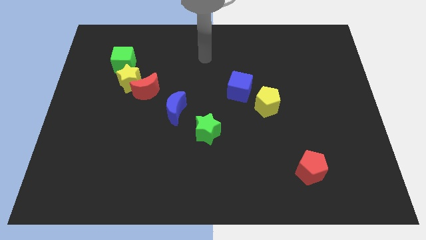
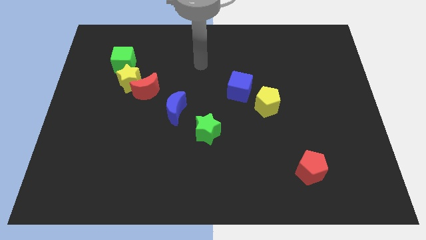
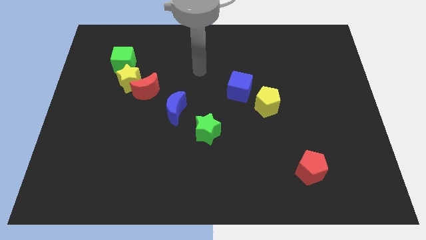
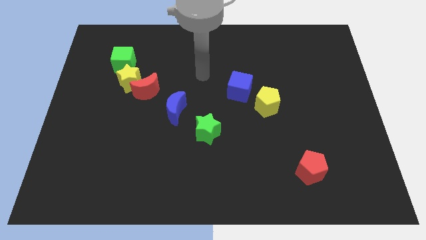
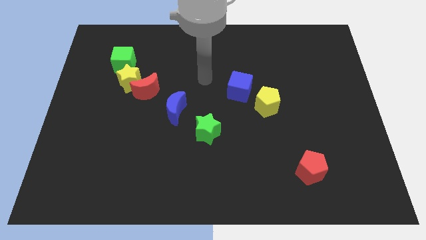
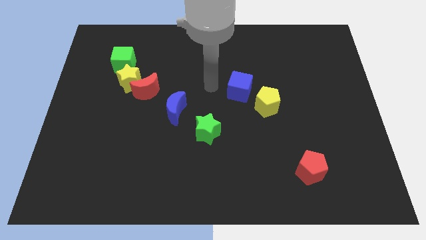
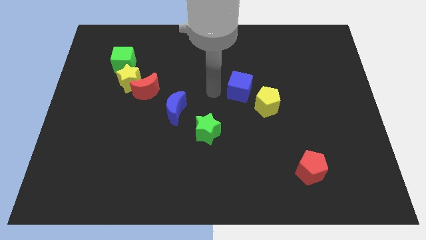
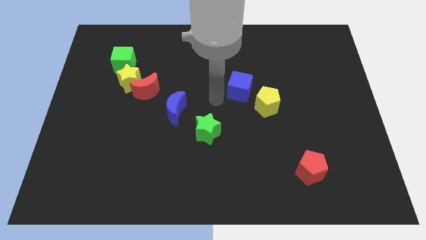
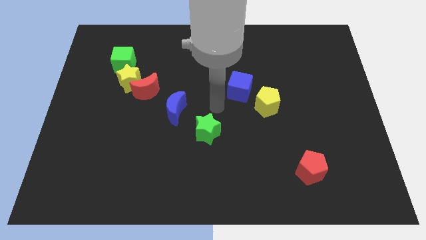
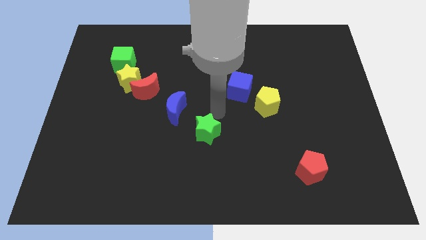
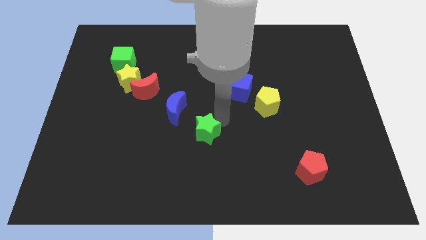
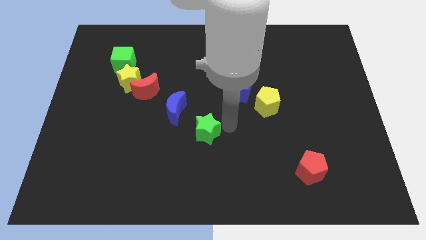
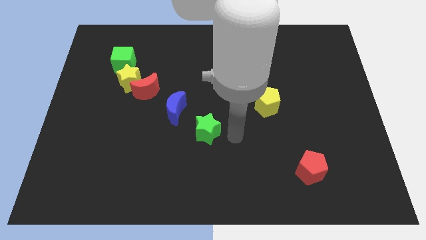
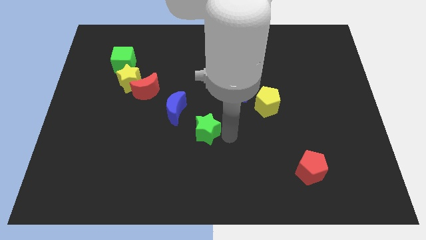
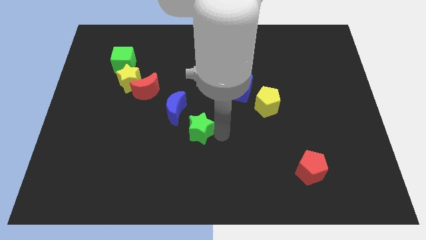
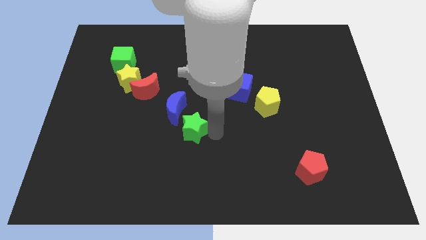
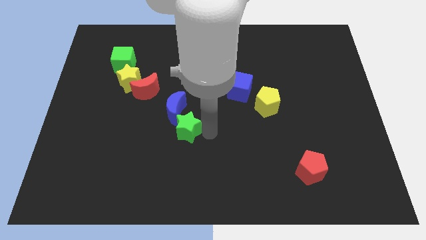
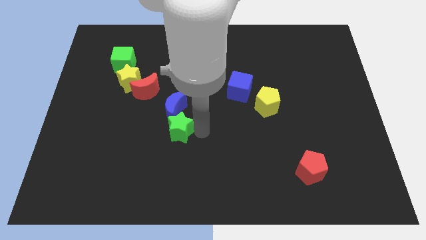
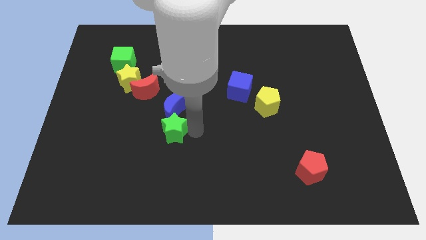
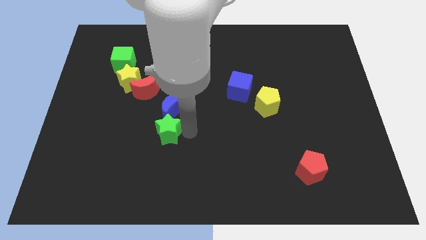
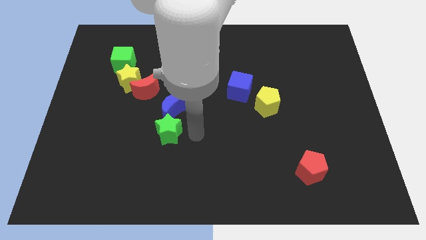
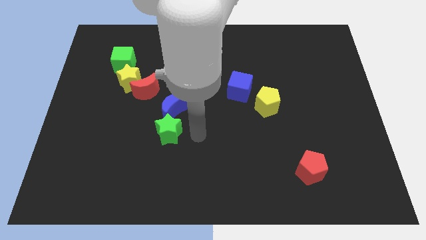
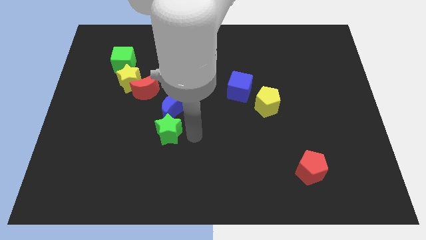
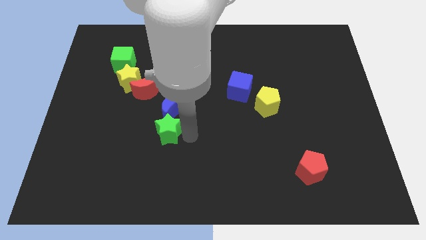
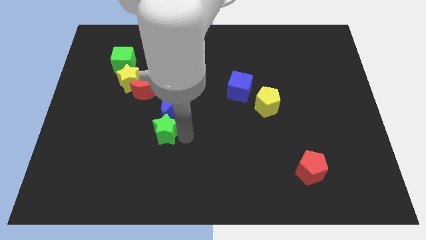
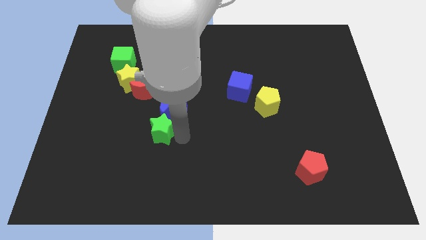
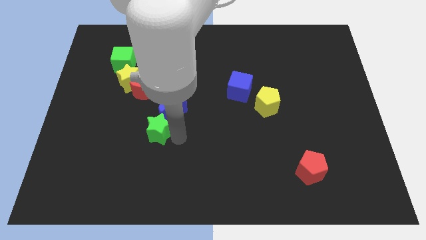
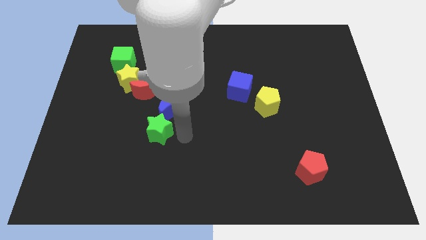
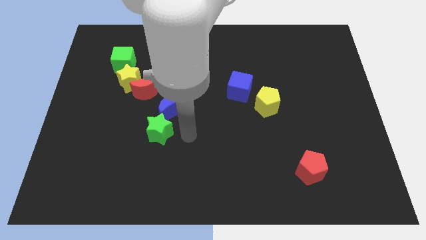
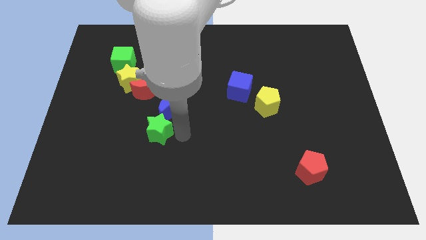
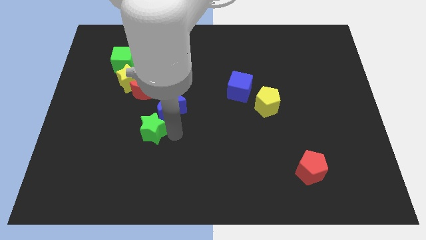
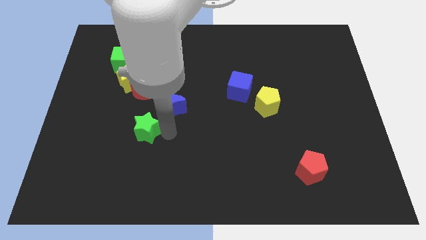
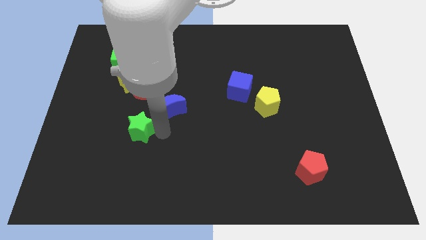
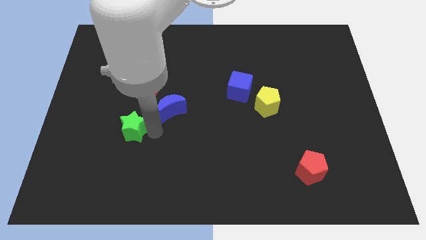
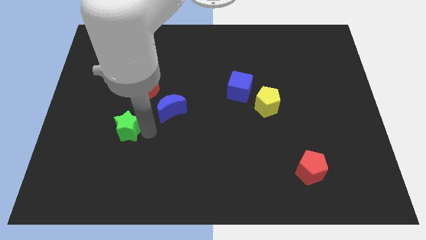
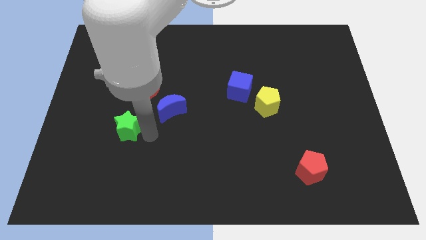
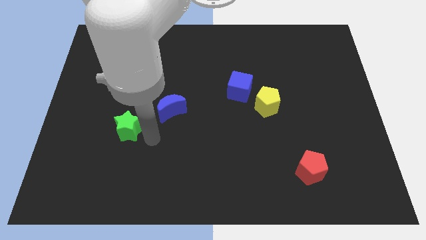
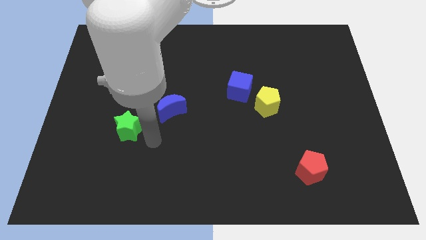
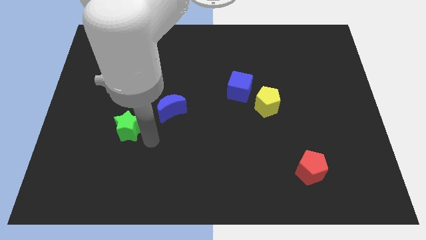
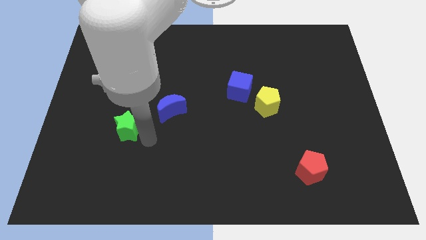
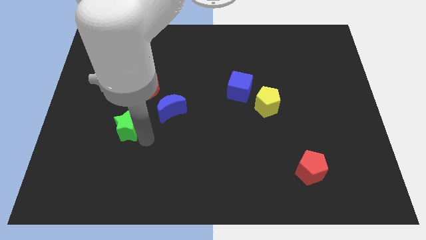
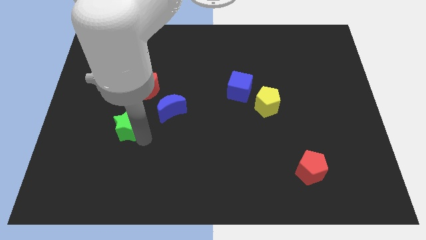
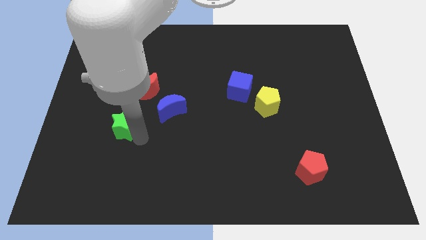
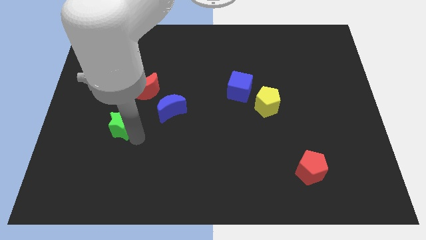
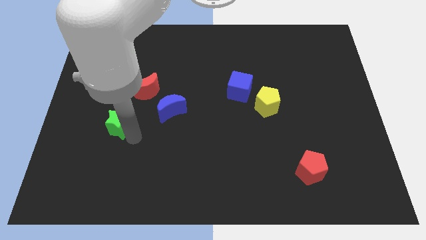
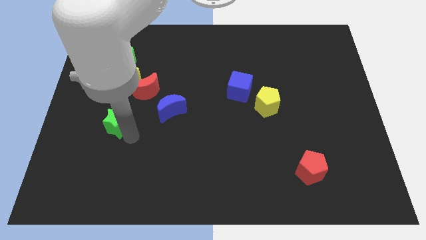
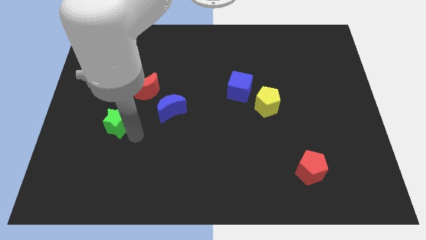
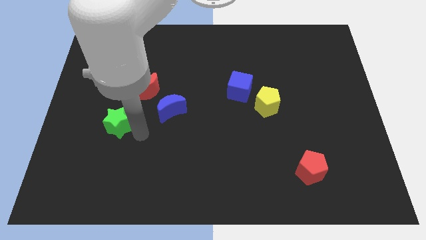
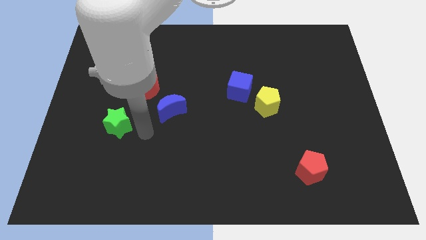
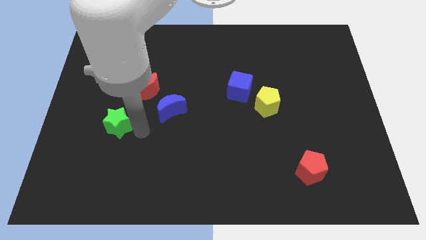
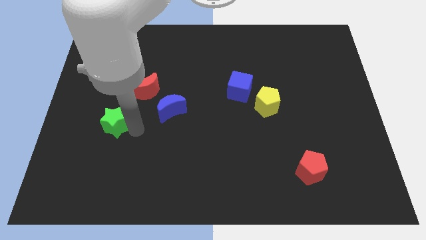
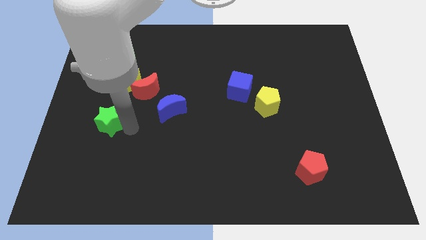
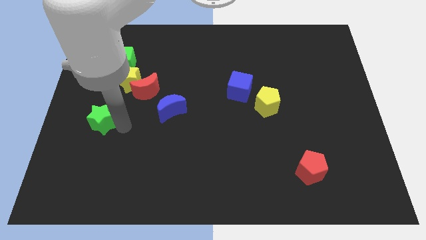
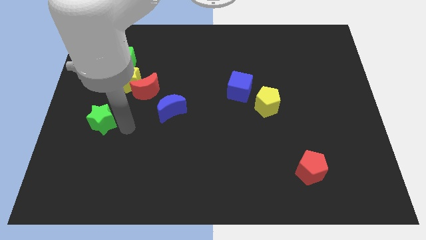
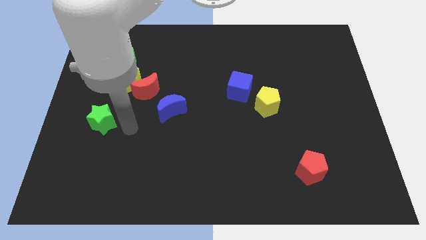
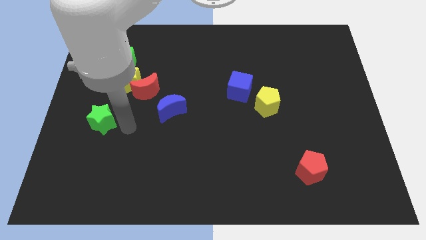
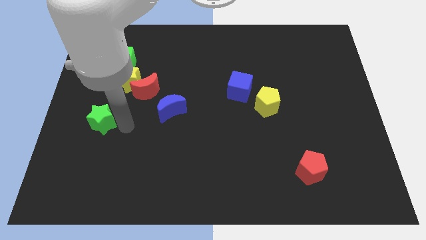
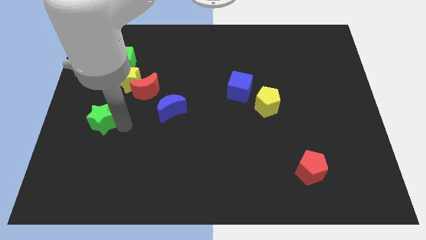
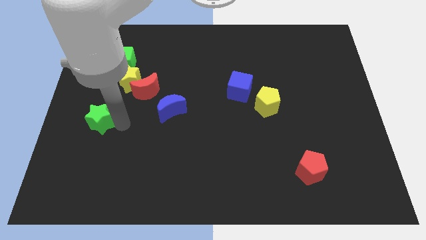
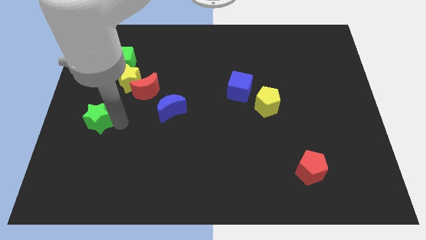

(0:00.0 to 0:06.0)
put the green star to the left side of the board

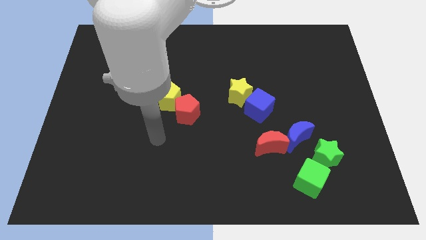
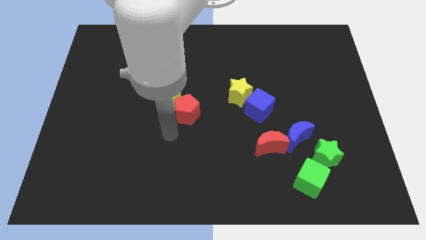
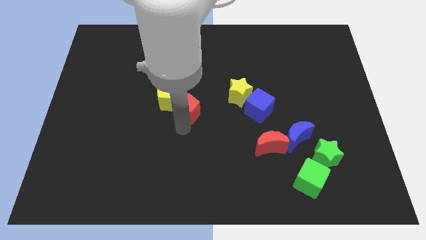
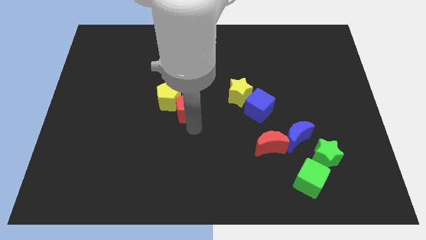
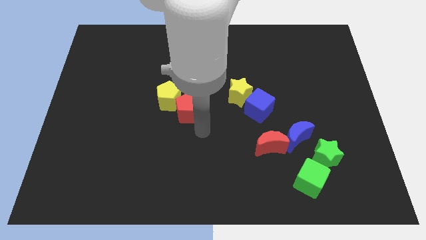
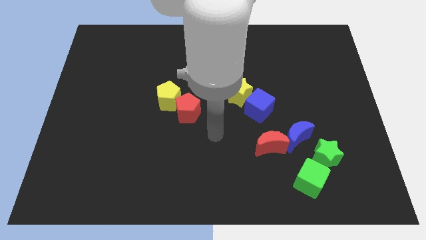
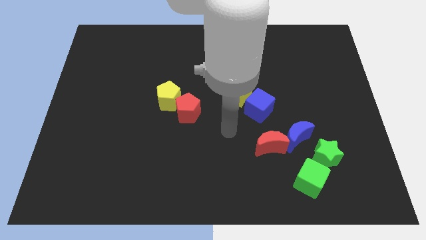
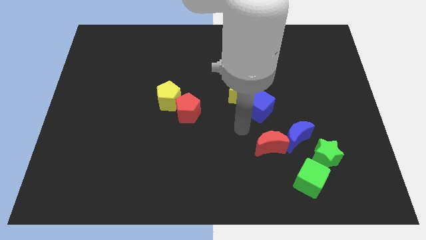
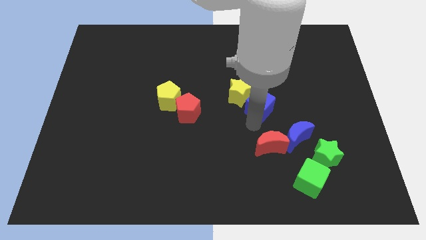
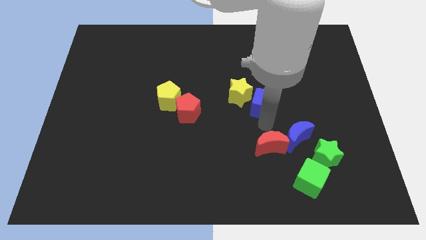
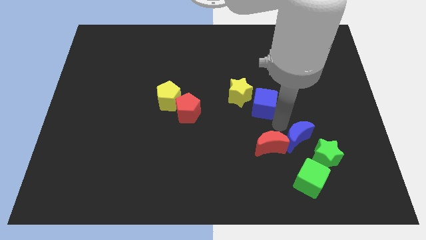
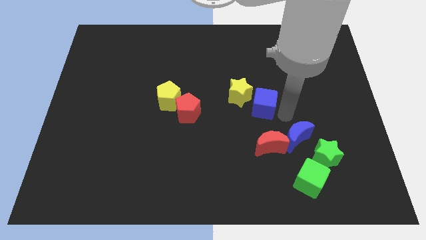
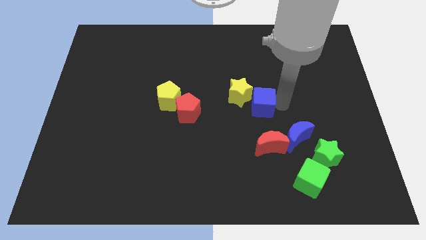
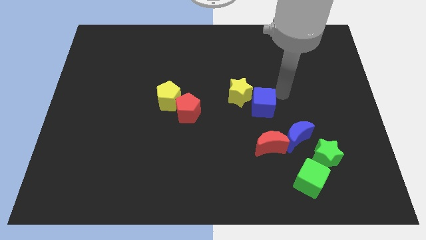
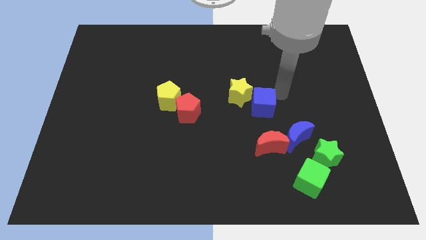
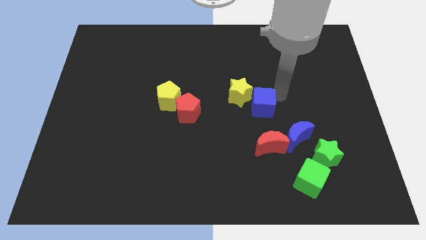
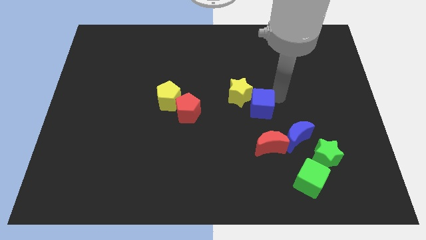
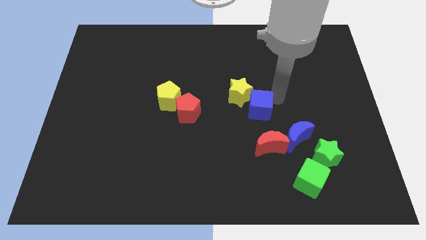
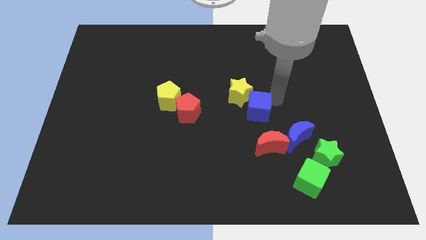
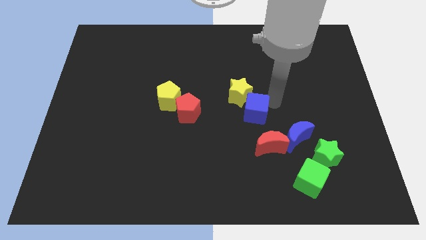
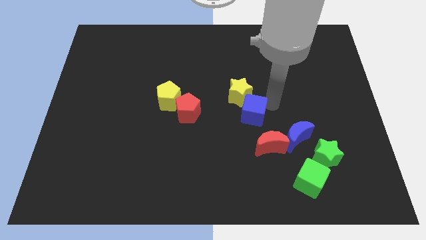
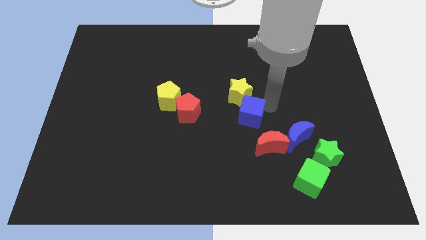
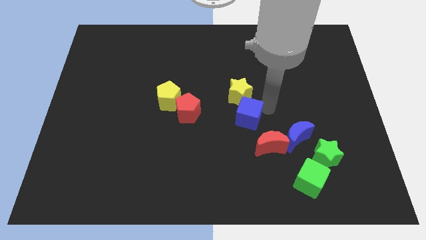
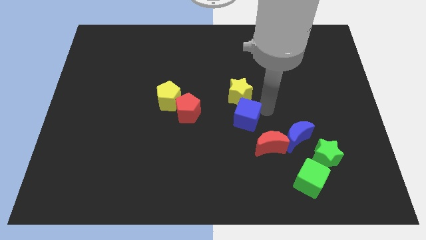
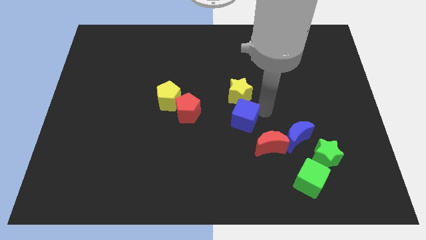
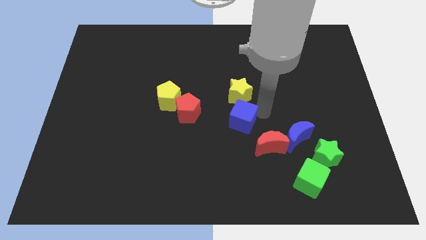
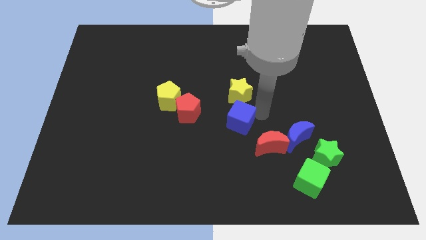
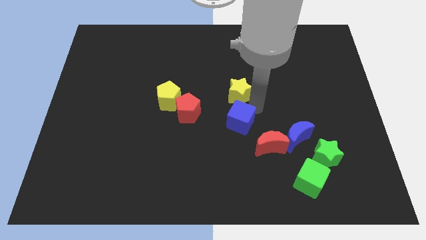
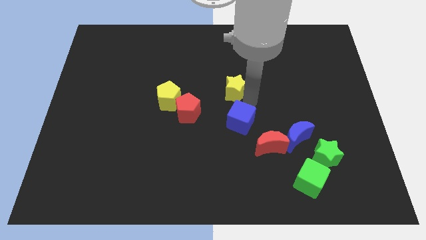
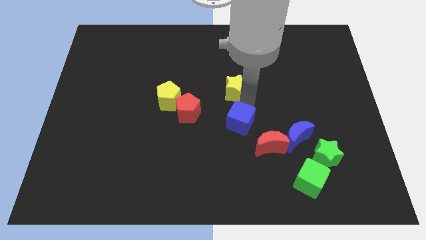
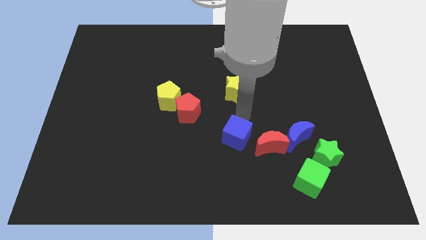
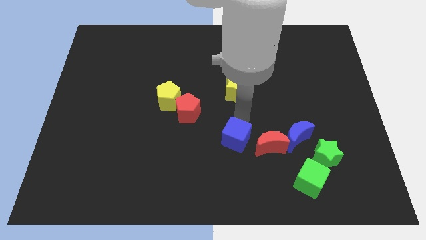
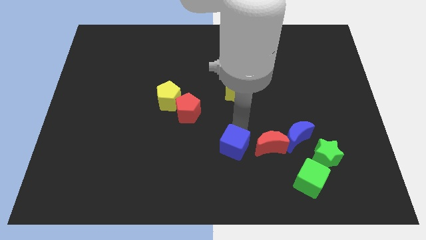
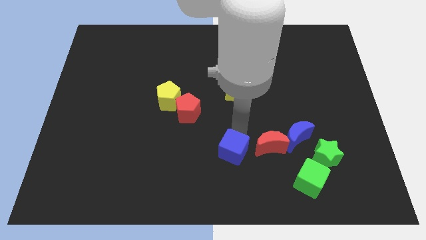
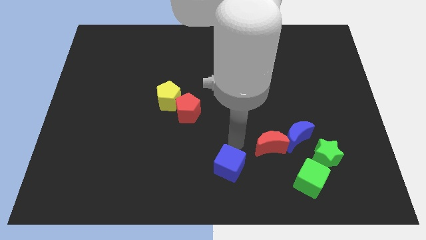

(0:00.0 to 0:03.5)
slide the blue cube to the bottom
